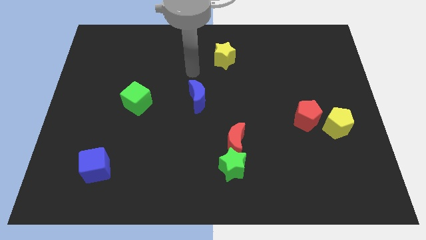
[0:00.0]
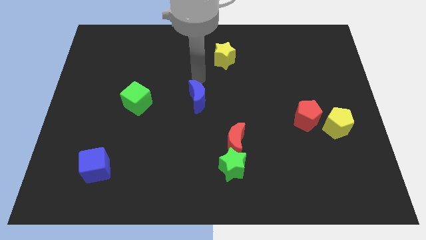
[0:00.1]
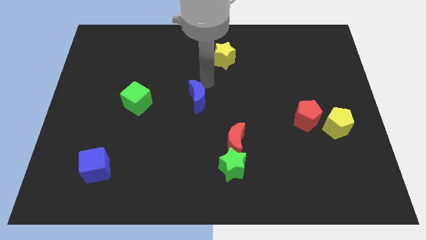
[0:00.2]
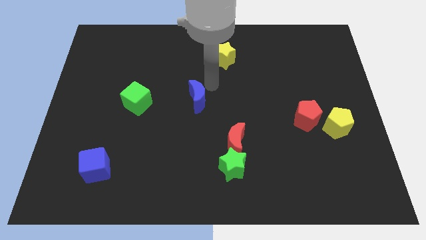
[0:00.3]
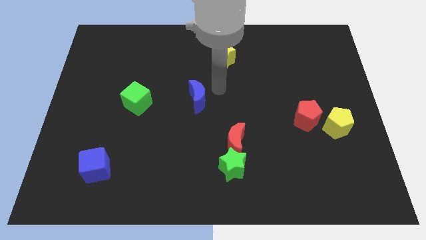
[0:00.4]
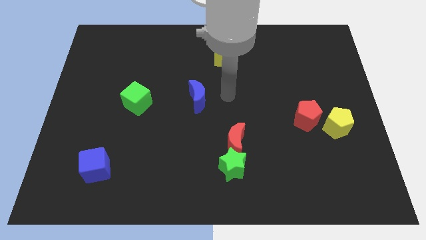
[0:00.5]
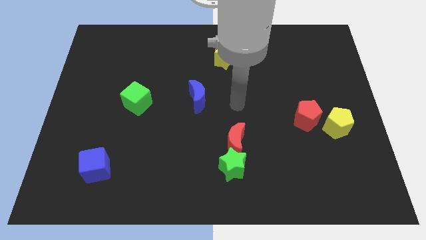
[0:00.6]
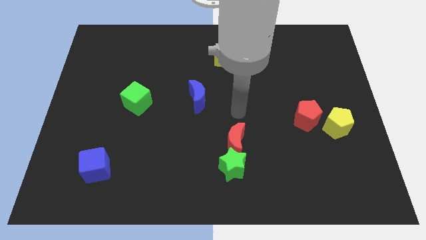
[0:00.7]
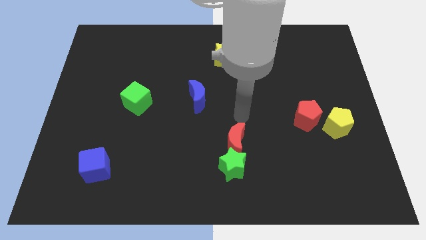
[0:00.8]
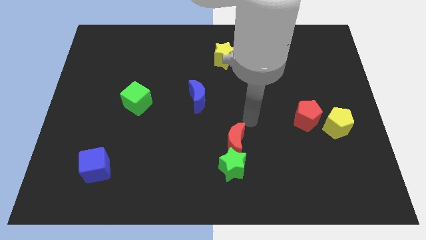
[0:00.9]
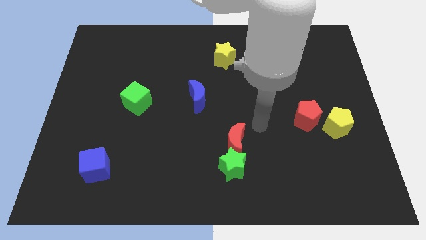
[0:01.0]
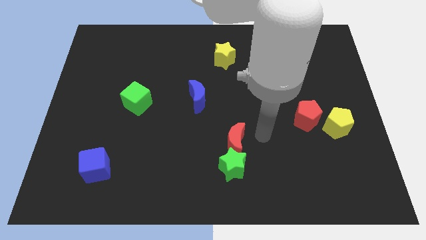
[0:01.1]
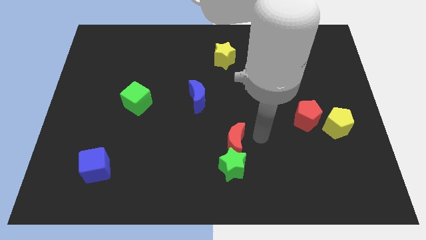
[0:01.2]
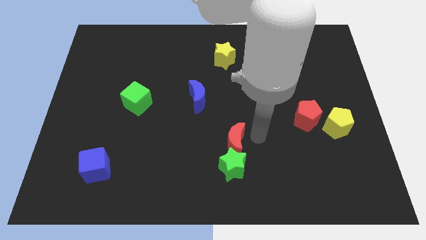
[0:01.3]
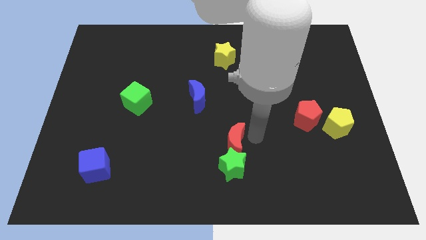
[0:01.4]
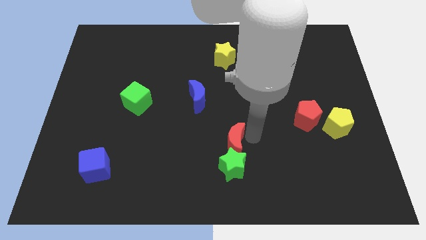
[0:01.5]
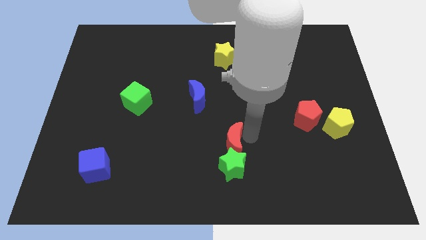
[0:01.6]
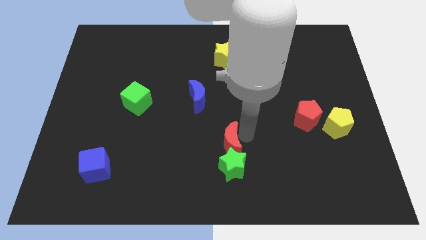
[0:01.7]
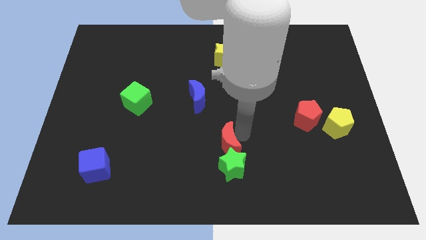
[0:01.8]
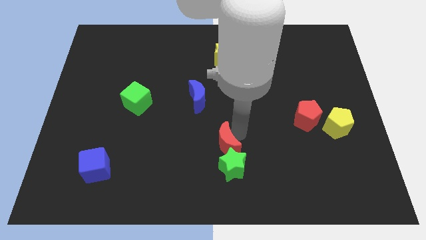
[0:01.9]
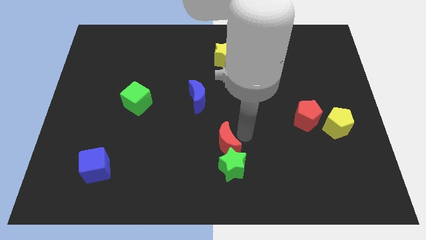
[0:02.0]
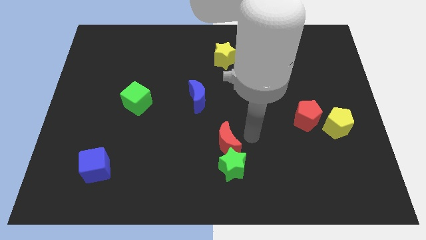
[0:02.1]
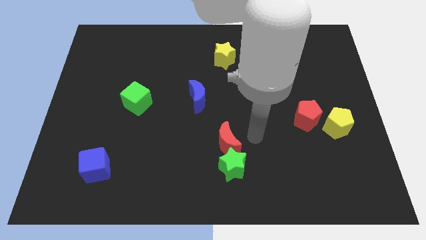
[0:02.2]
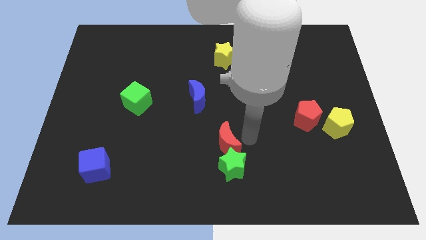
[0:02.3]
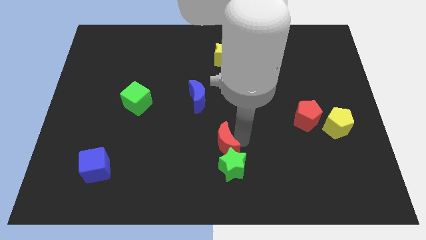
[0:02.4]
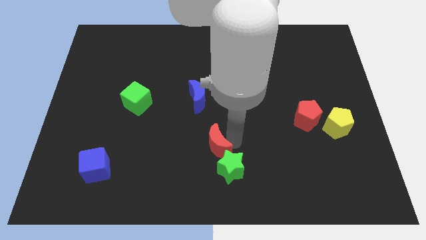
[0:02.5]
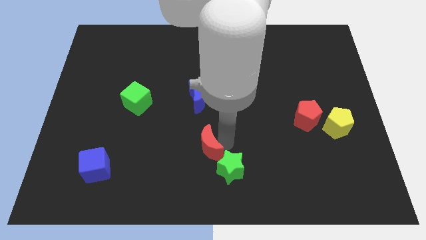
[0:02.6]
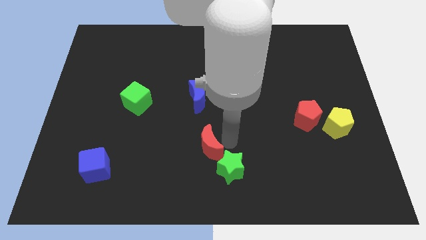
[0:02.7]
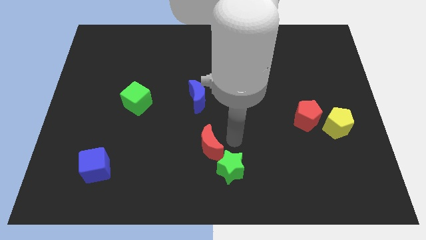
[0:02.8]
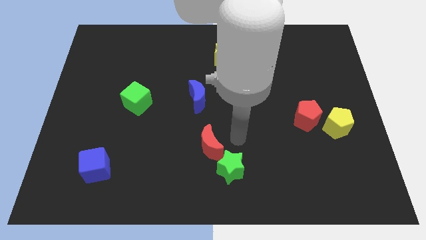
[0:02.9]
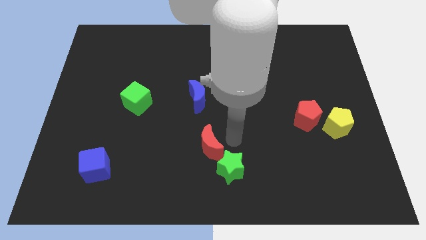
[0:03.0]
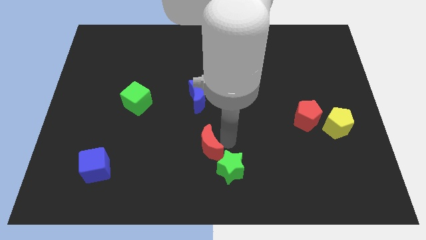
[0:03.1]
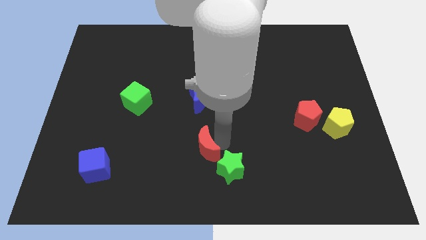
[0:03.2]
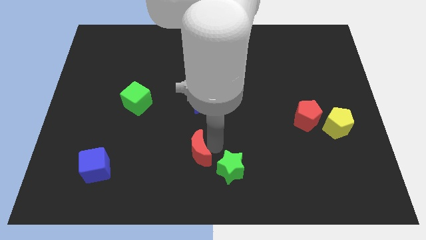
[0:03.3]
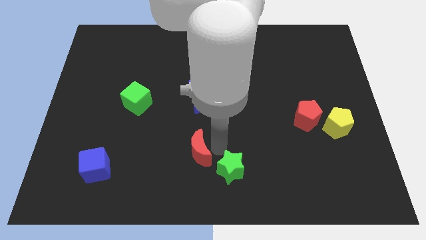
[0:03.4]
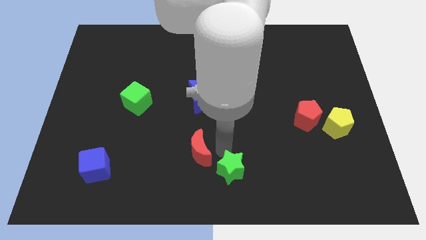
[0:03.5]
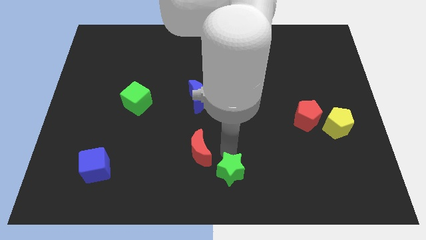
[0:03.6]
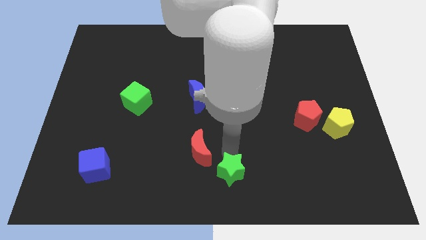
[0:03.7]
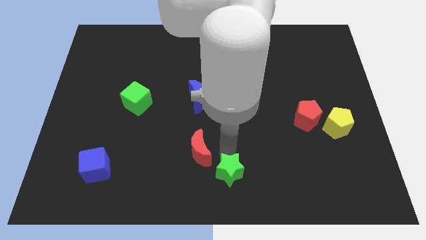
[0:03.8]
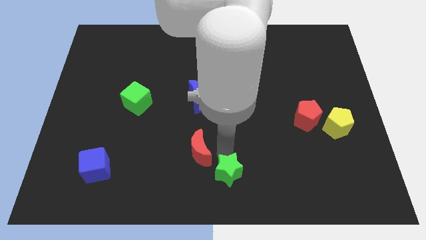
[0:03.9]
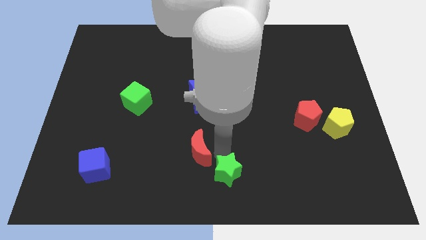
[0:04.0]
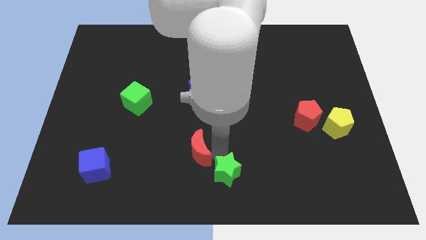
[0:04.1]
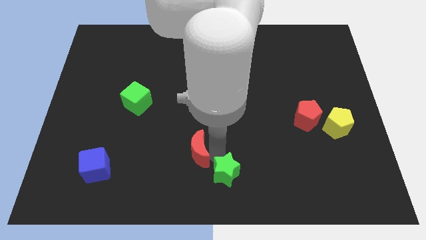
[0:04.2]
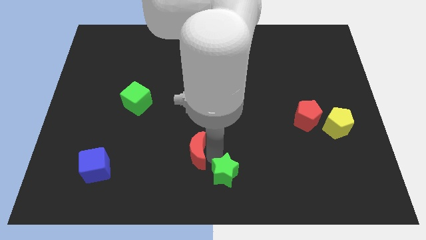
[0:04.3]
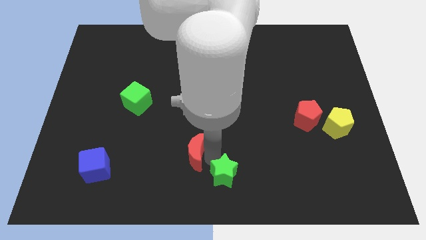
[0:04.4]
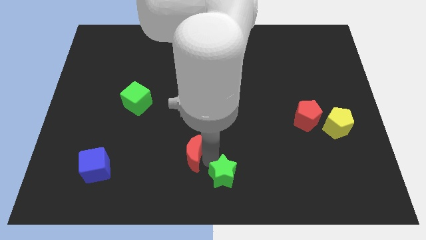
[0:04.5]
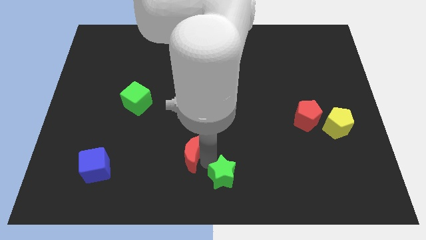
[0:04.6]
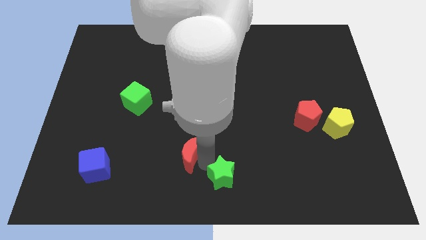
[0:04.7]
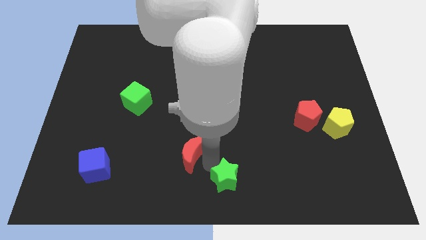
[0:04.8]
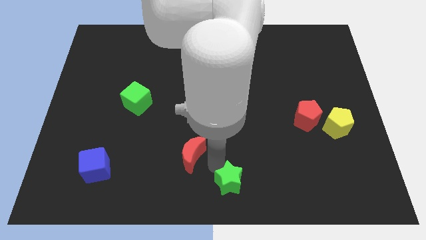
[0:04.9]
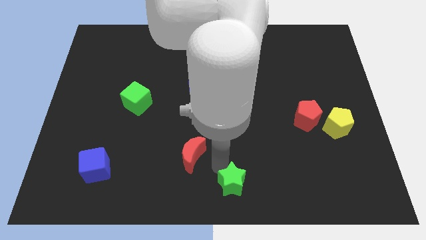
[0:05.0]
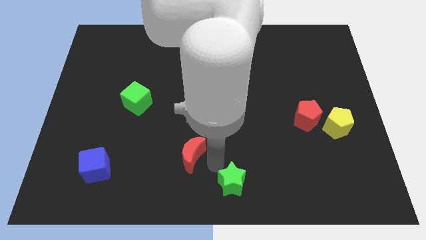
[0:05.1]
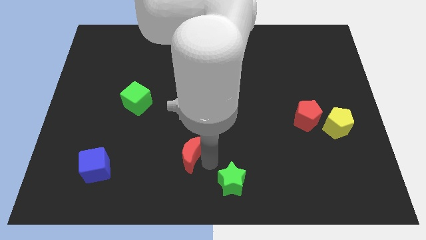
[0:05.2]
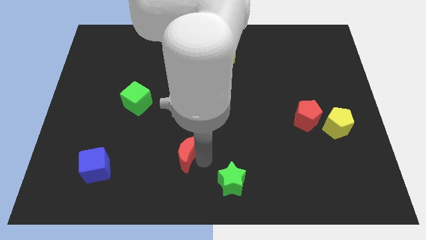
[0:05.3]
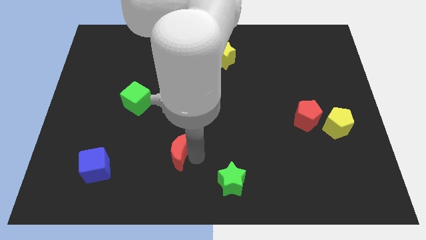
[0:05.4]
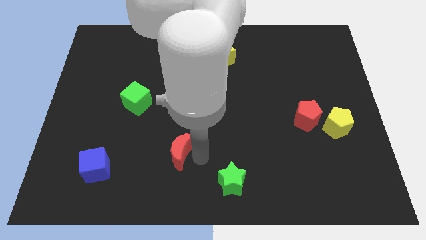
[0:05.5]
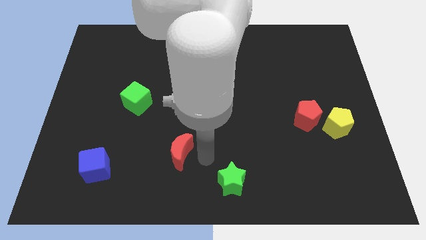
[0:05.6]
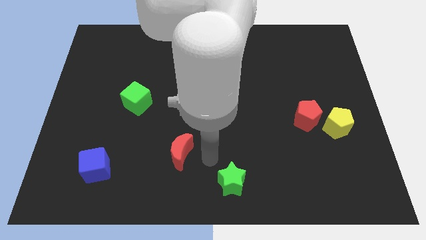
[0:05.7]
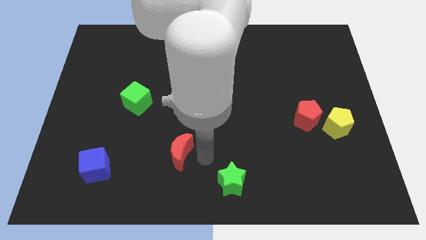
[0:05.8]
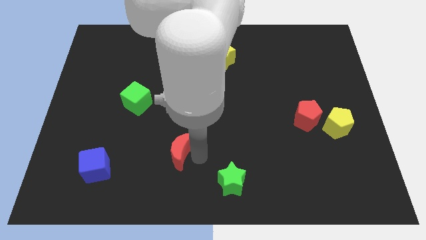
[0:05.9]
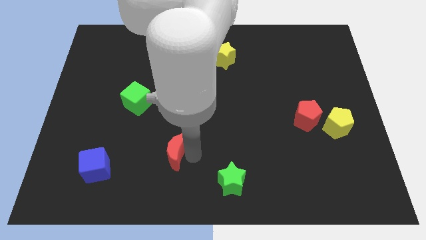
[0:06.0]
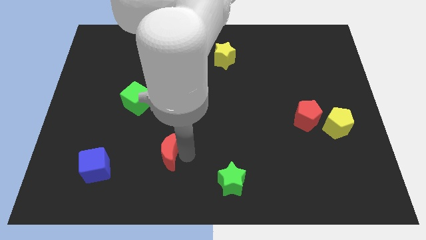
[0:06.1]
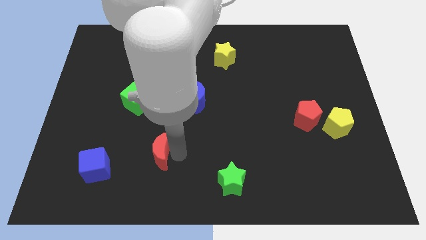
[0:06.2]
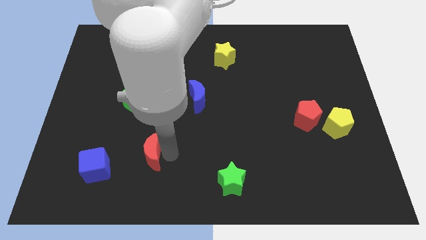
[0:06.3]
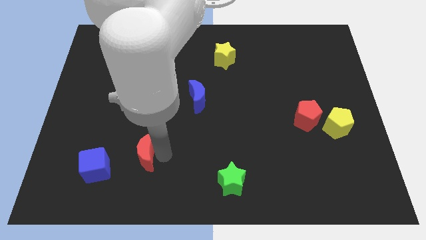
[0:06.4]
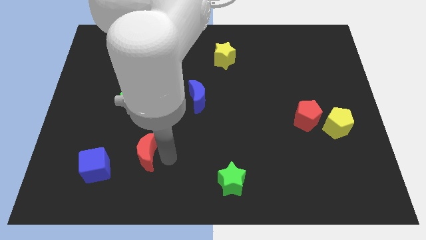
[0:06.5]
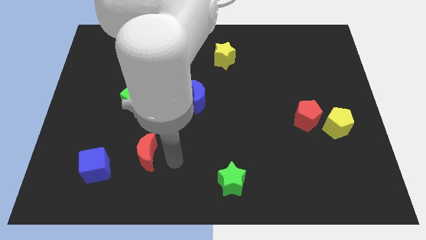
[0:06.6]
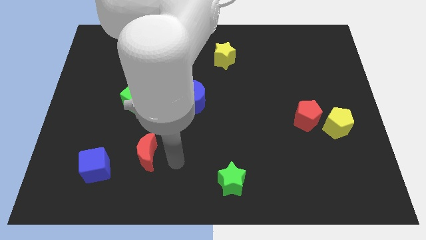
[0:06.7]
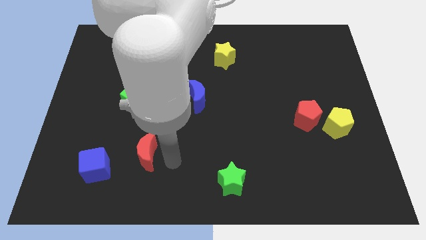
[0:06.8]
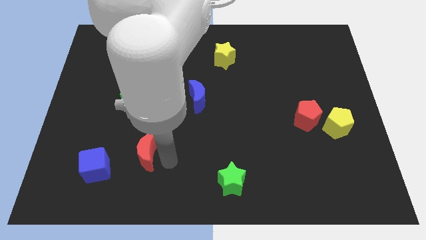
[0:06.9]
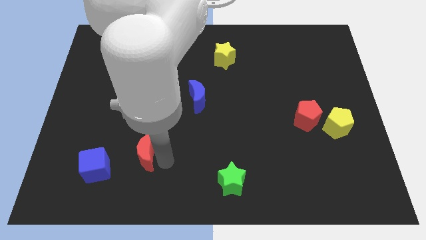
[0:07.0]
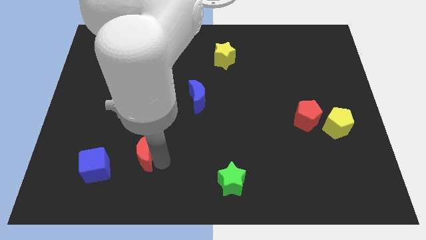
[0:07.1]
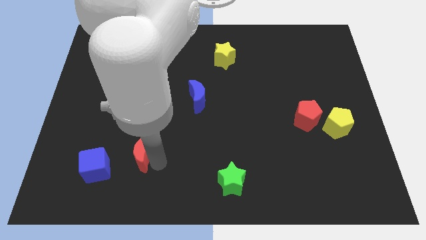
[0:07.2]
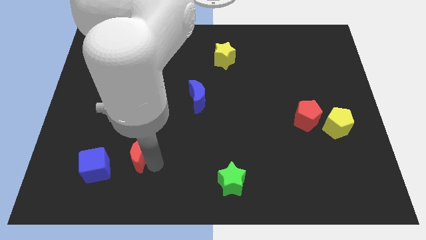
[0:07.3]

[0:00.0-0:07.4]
slide the red moon left
